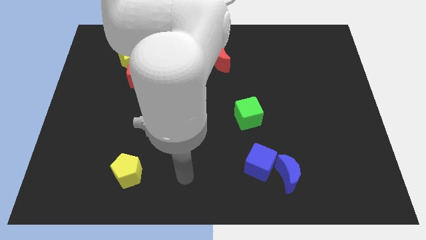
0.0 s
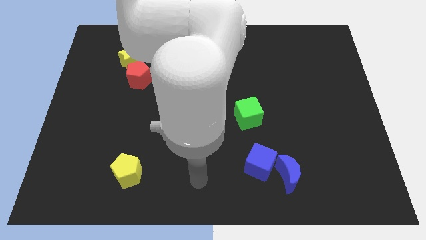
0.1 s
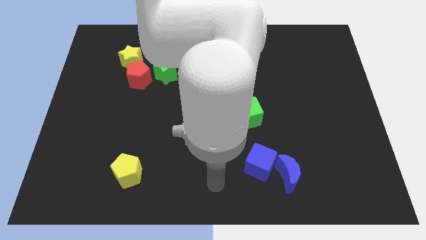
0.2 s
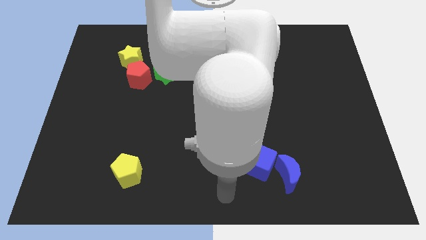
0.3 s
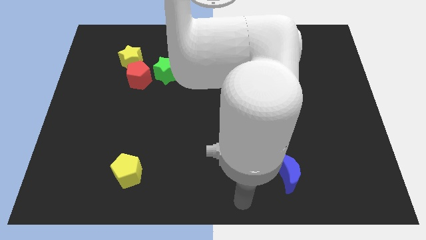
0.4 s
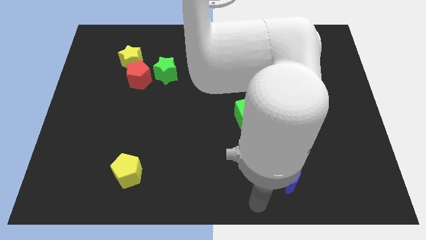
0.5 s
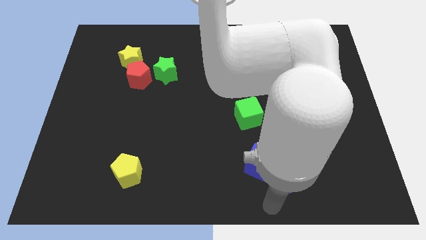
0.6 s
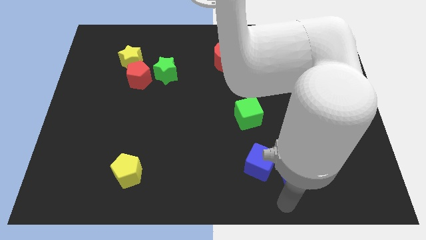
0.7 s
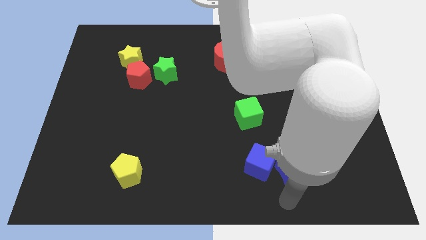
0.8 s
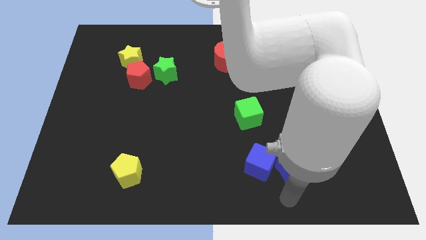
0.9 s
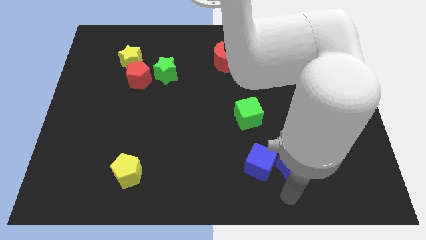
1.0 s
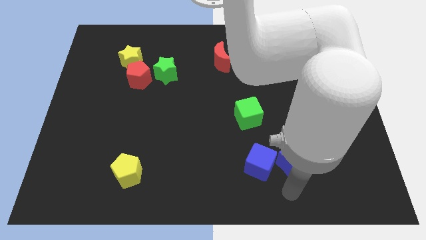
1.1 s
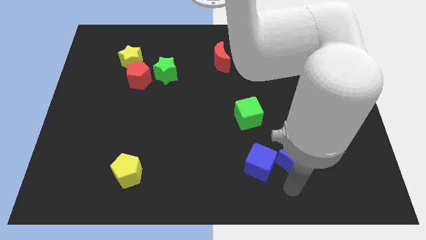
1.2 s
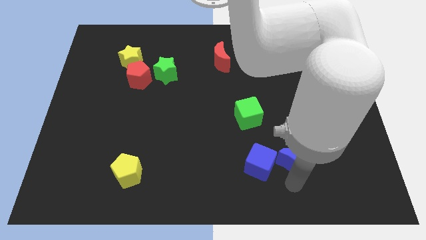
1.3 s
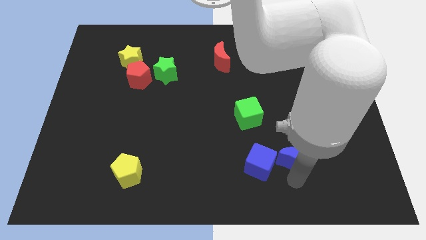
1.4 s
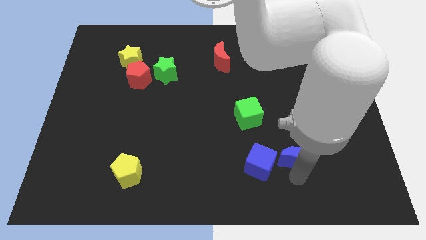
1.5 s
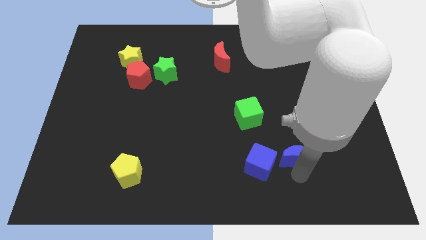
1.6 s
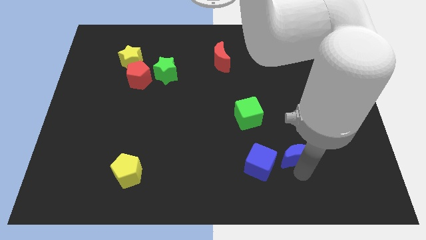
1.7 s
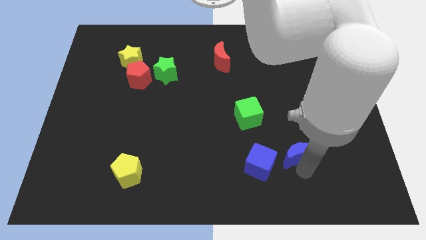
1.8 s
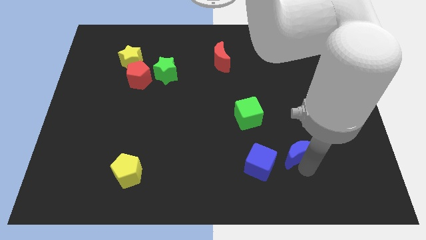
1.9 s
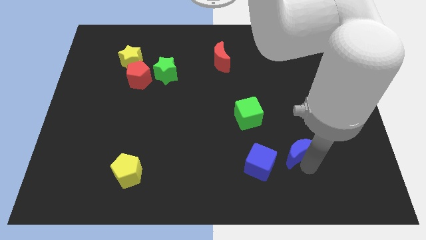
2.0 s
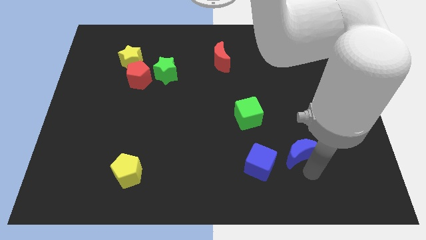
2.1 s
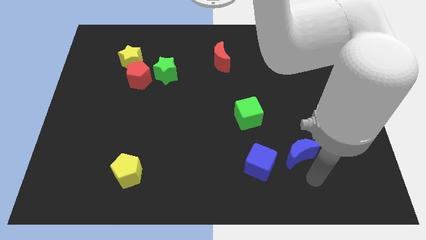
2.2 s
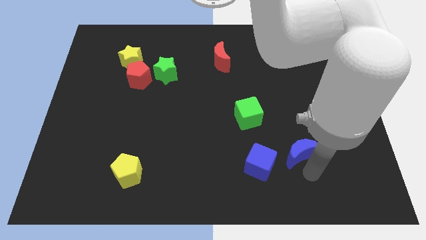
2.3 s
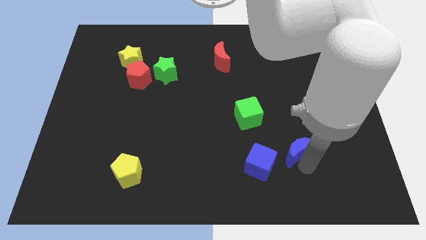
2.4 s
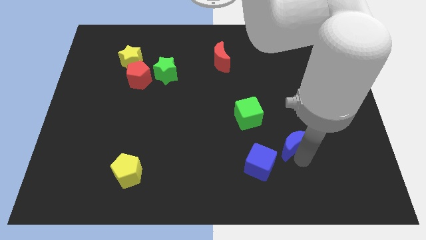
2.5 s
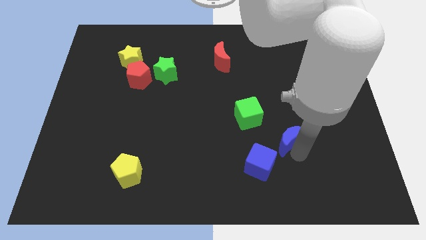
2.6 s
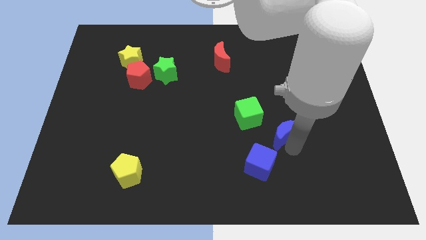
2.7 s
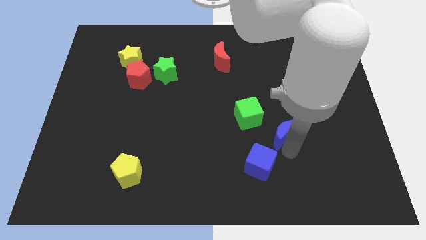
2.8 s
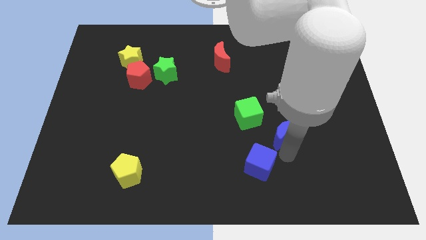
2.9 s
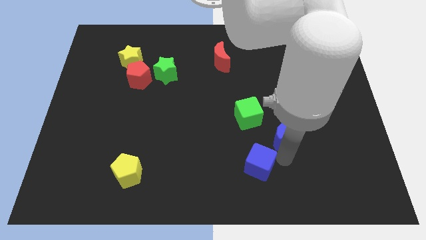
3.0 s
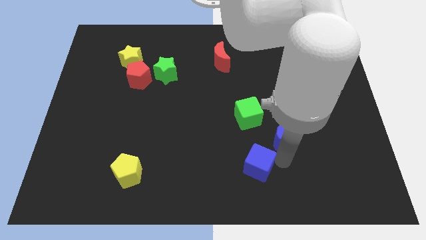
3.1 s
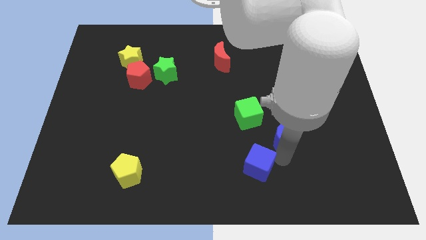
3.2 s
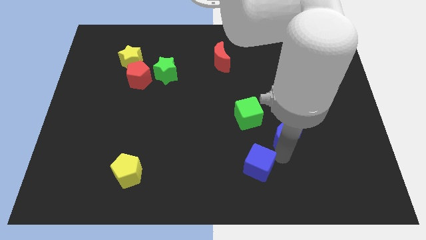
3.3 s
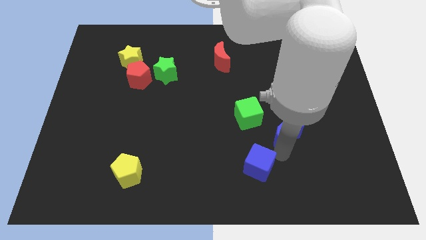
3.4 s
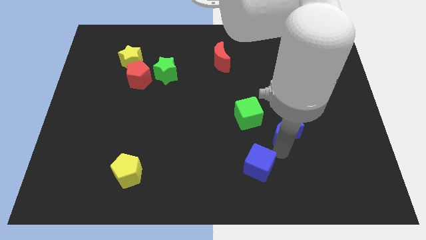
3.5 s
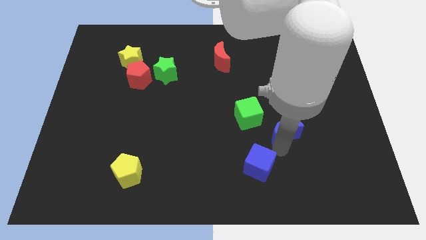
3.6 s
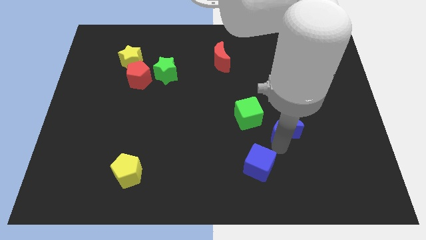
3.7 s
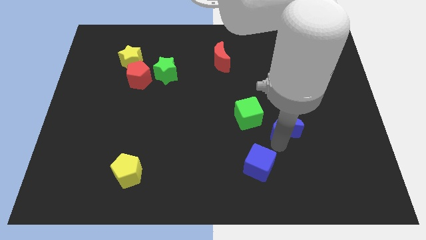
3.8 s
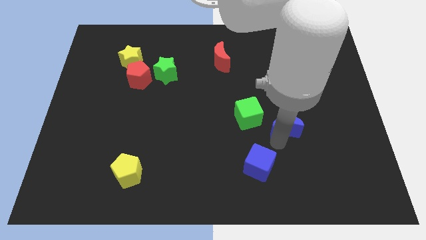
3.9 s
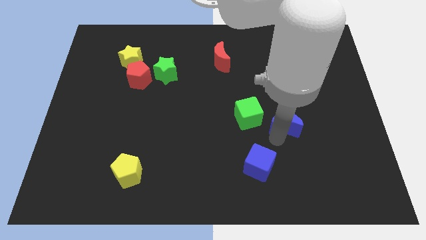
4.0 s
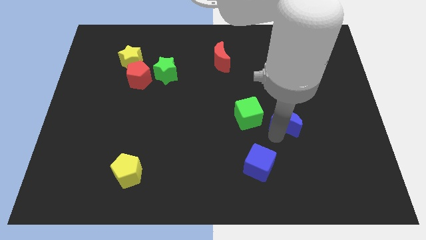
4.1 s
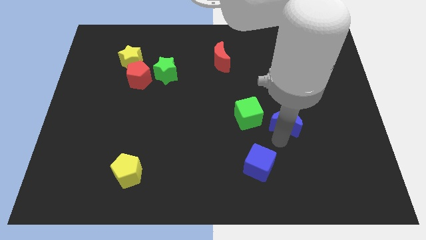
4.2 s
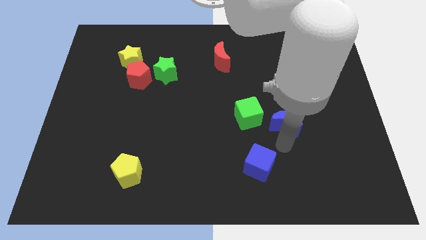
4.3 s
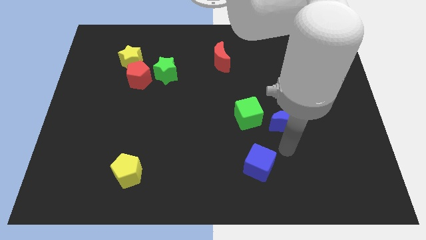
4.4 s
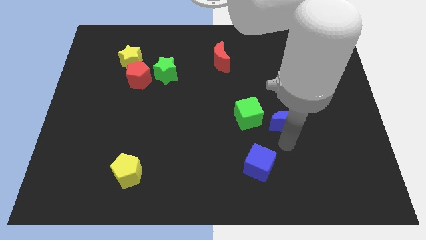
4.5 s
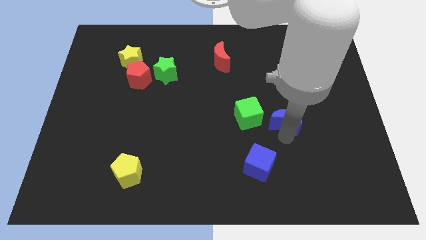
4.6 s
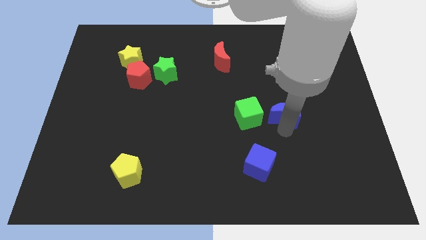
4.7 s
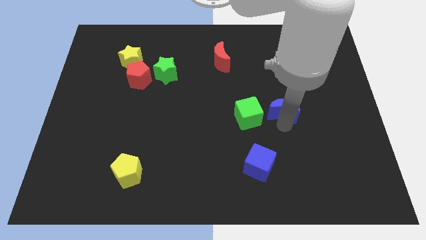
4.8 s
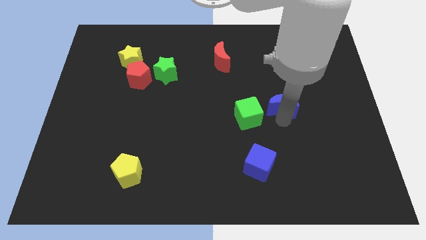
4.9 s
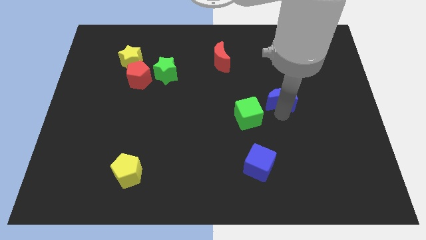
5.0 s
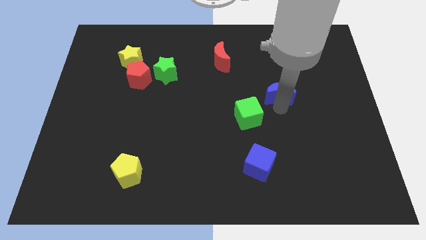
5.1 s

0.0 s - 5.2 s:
move the blue moon upwards

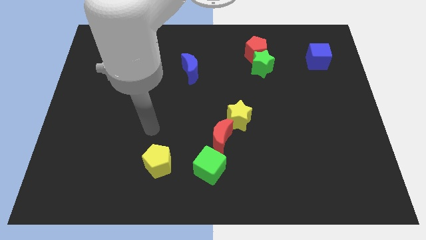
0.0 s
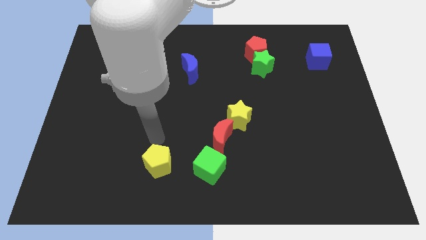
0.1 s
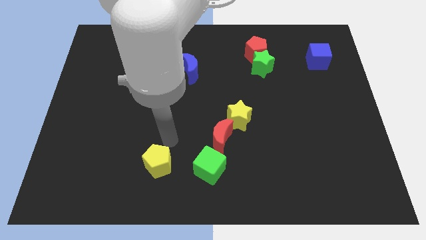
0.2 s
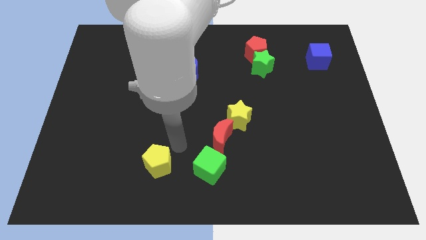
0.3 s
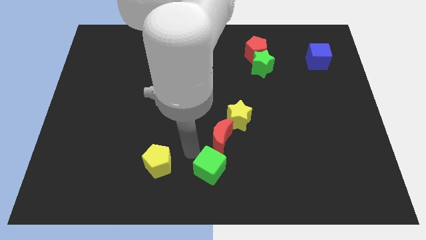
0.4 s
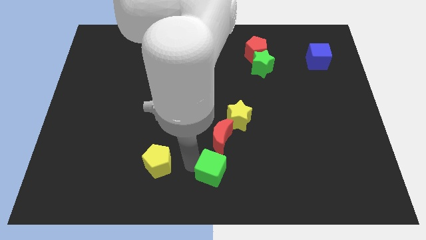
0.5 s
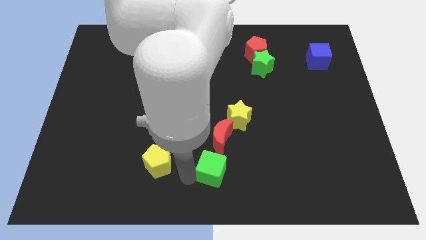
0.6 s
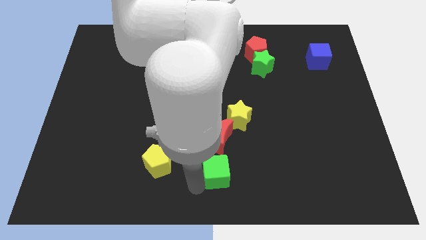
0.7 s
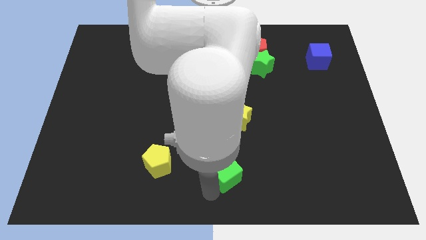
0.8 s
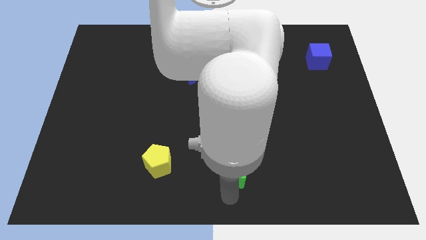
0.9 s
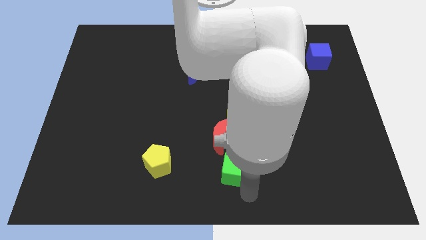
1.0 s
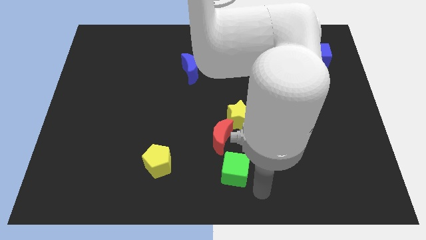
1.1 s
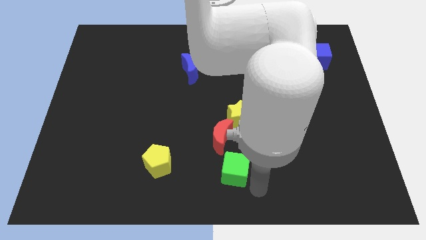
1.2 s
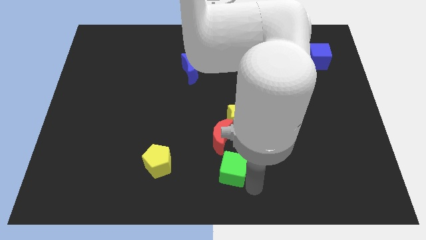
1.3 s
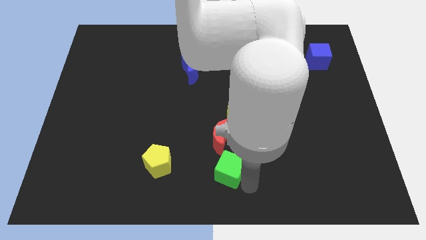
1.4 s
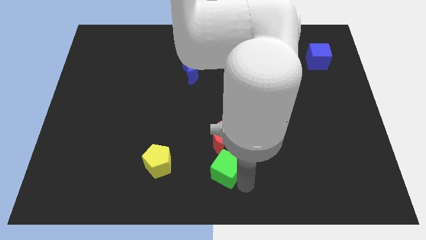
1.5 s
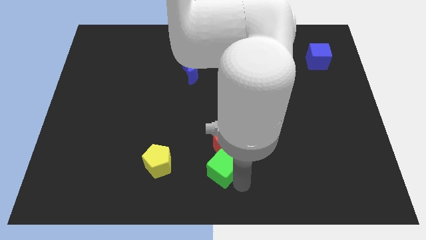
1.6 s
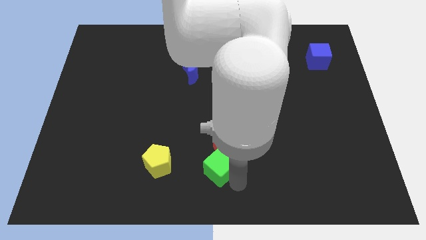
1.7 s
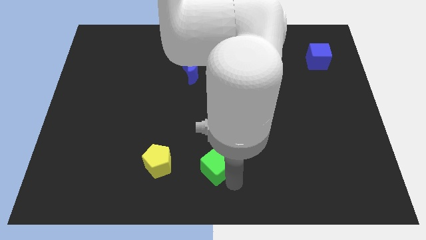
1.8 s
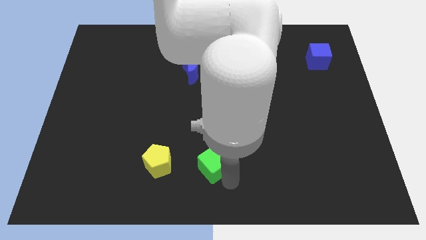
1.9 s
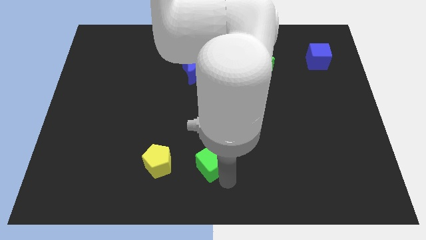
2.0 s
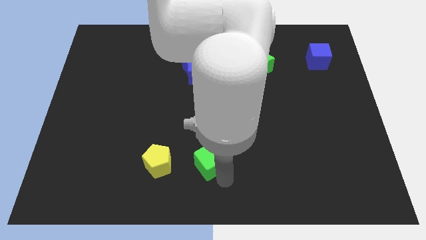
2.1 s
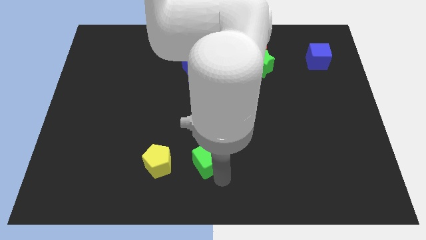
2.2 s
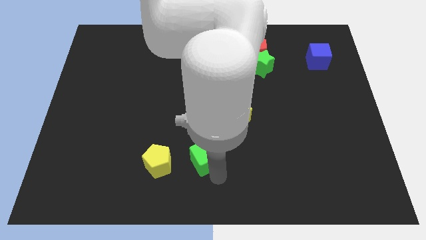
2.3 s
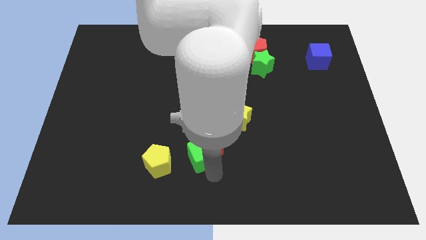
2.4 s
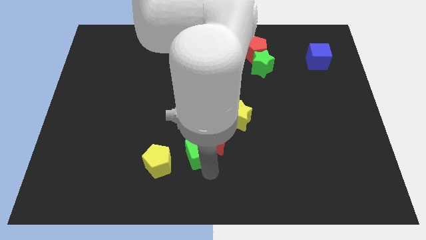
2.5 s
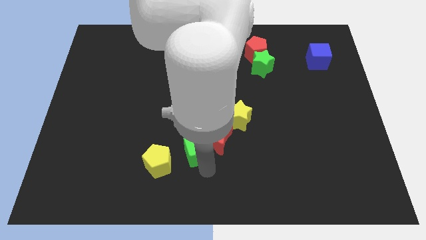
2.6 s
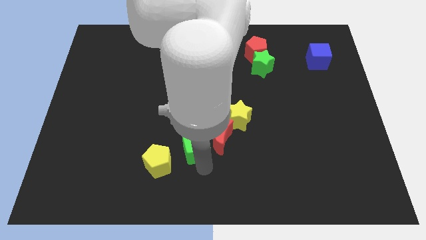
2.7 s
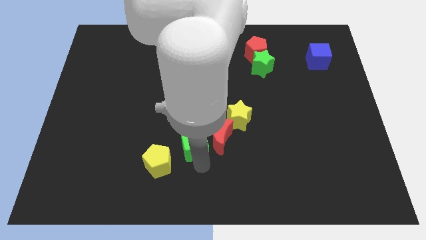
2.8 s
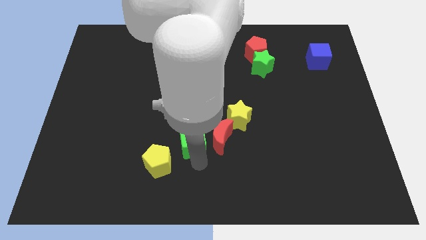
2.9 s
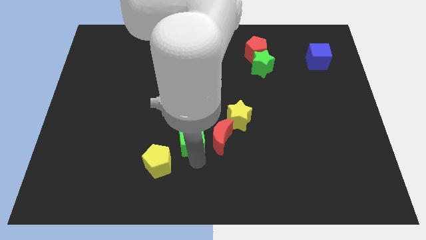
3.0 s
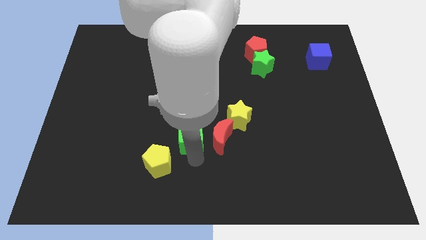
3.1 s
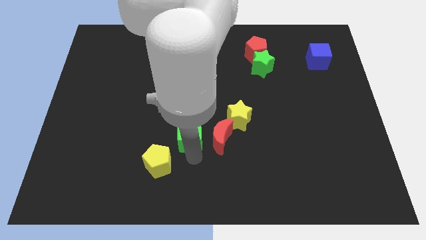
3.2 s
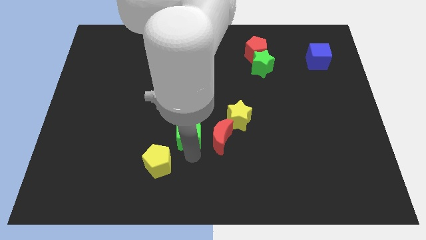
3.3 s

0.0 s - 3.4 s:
slightly slide the green cube up
